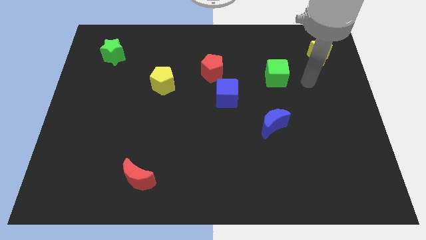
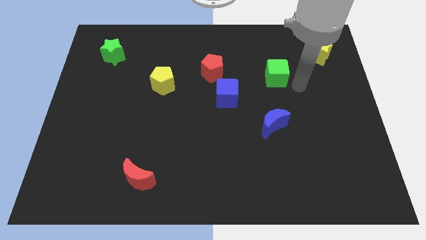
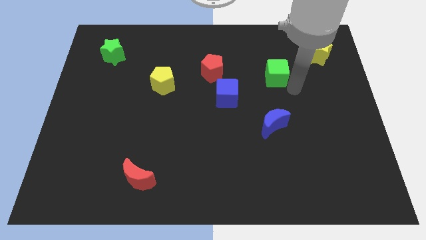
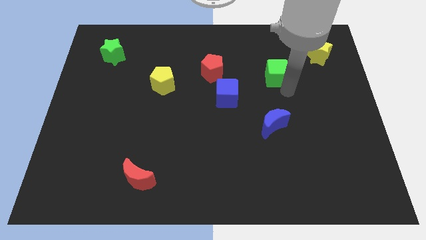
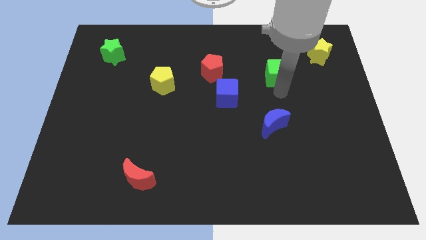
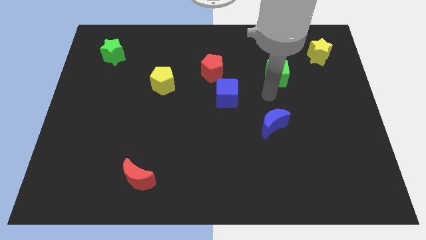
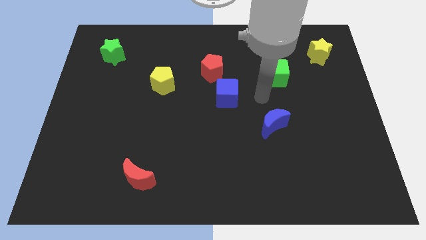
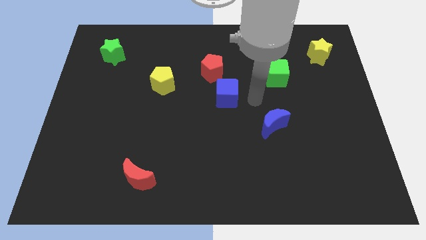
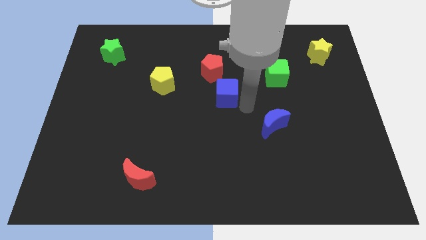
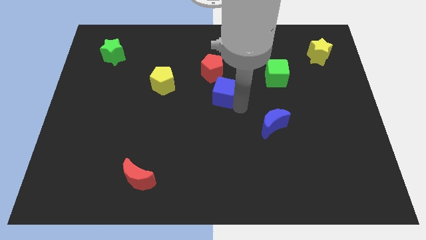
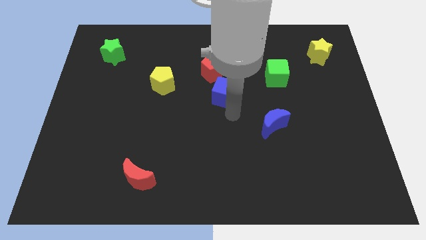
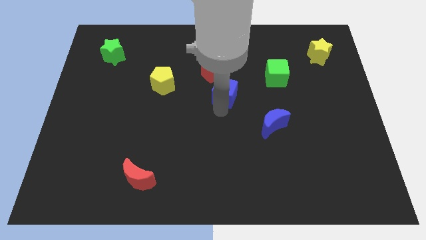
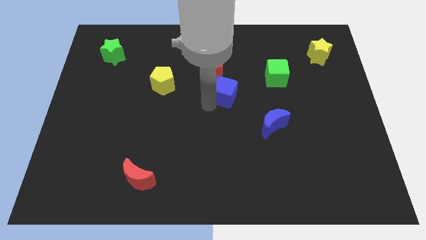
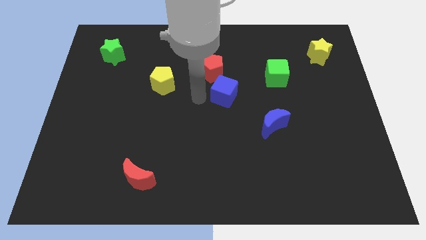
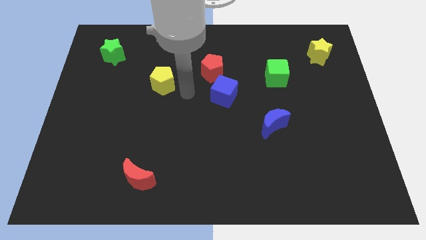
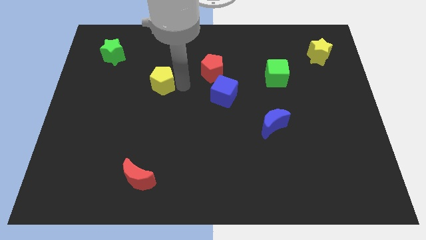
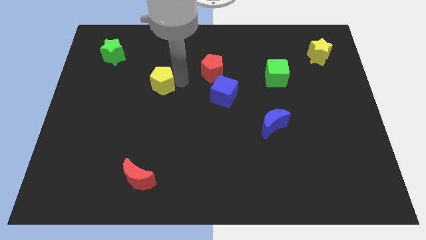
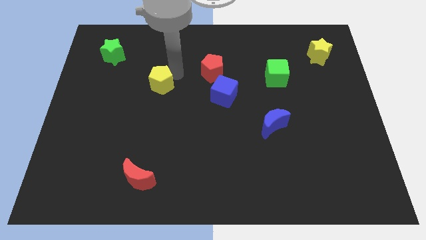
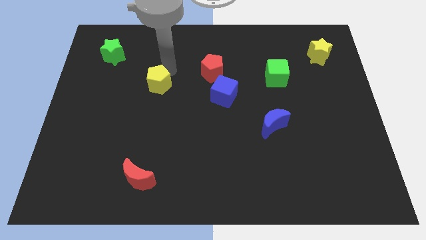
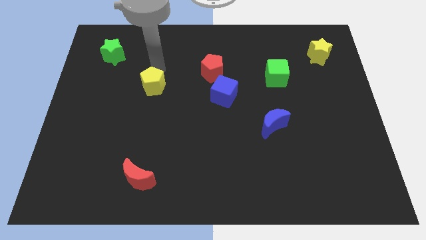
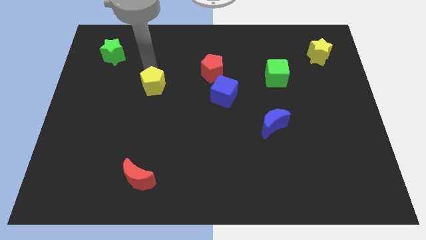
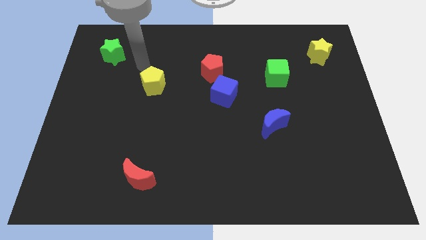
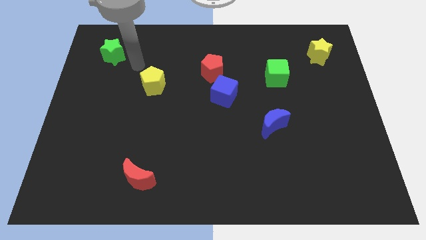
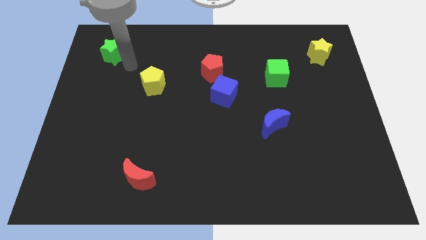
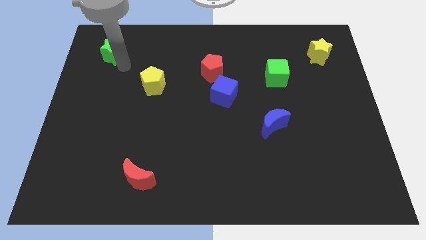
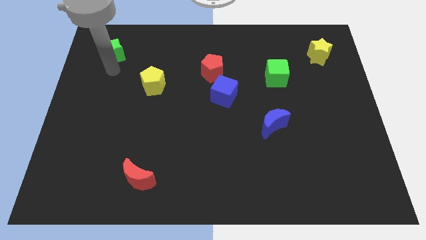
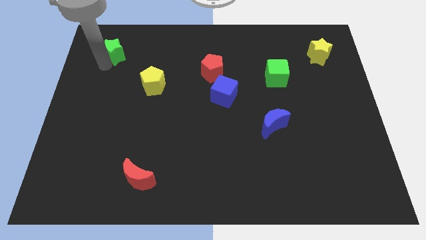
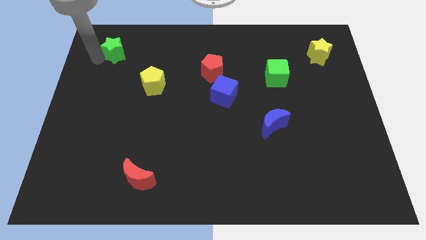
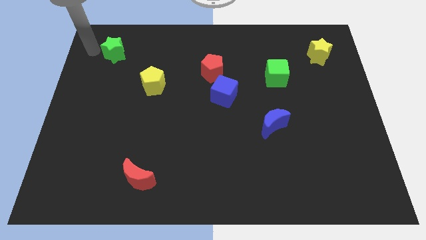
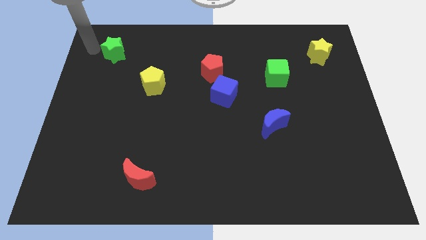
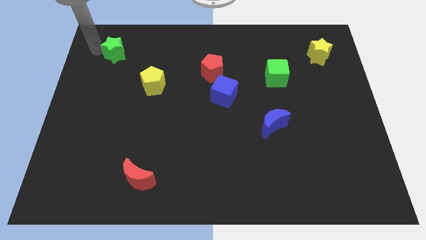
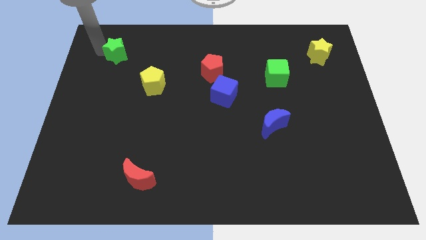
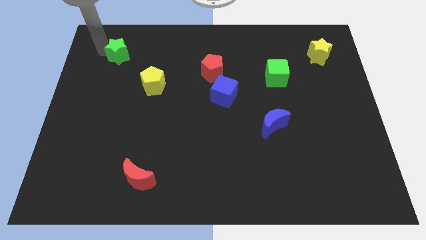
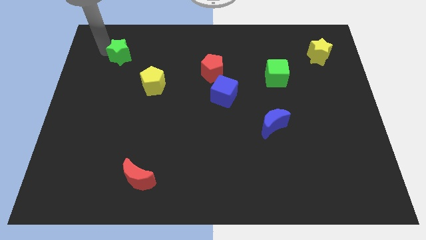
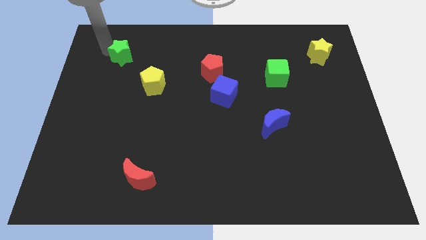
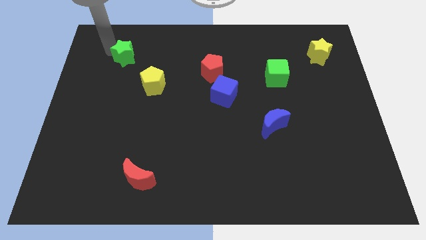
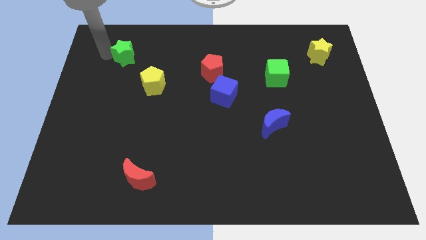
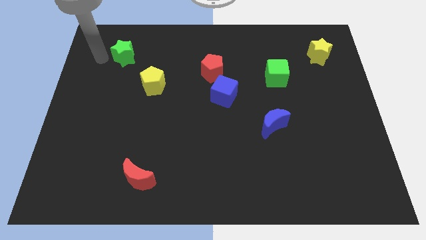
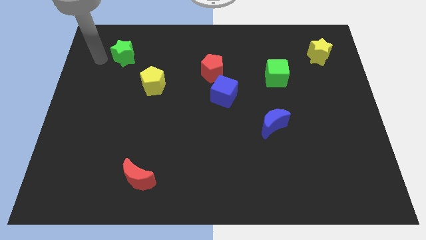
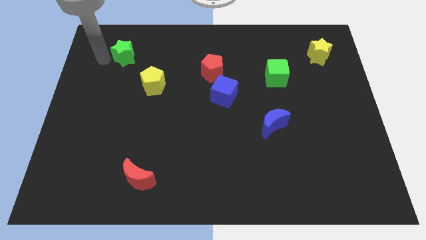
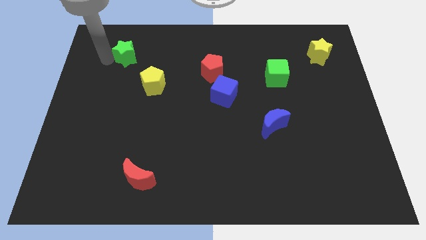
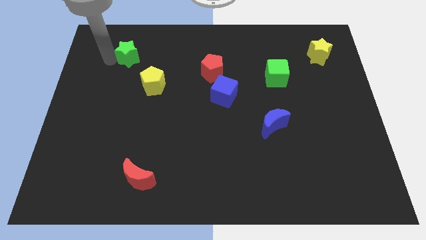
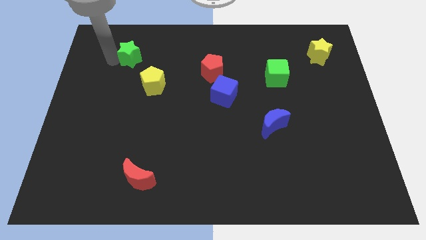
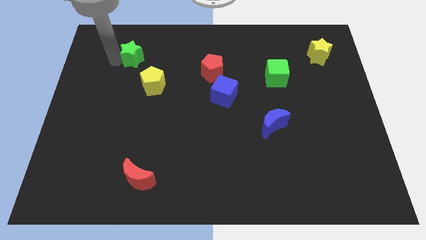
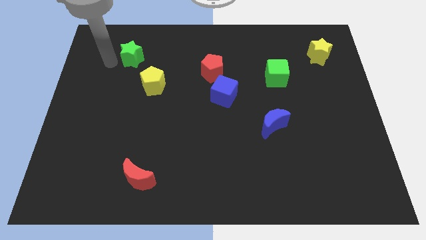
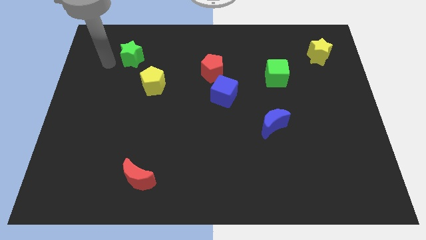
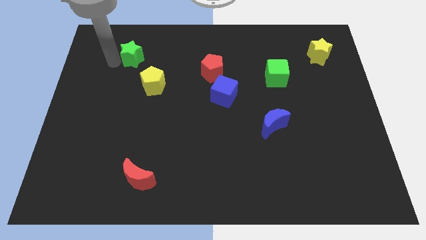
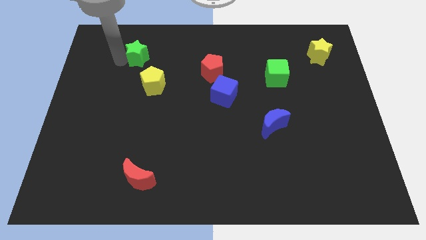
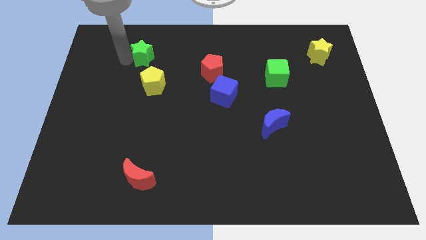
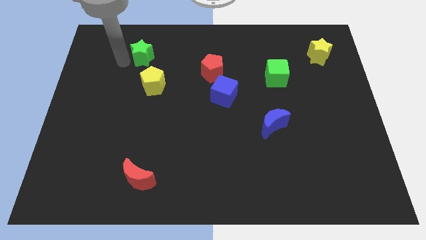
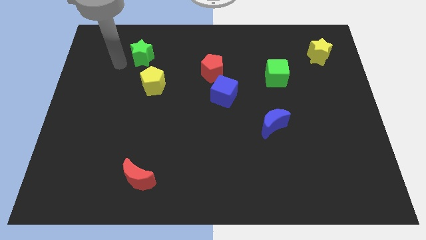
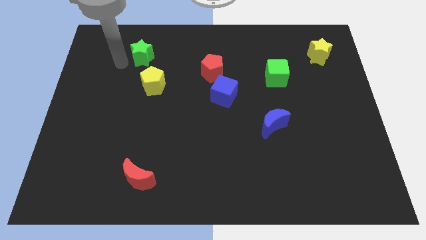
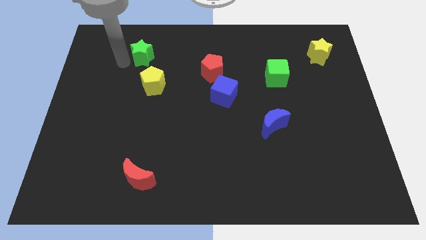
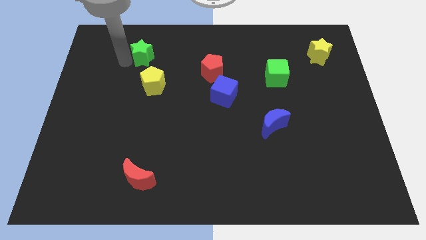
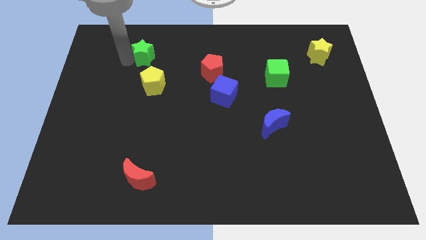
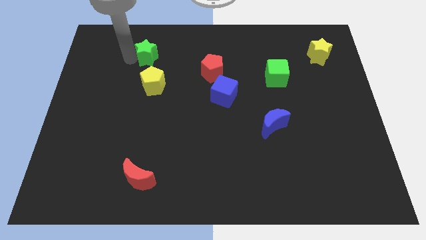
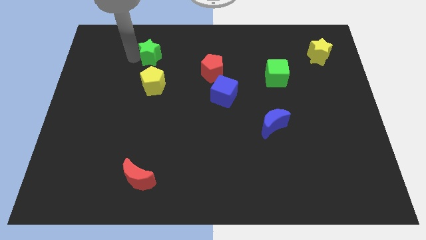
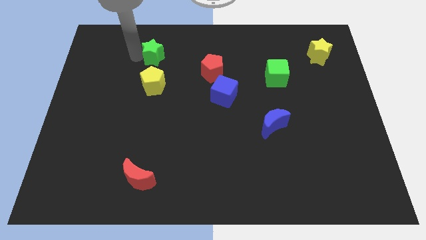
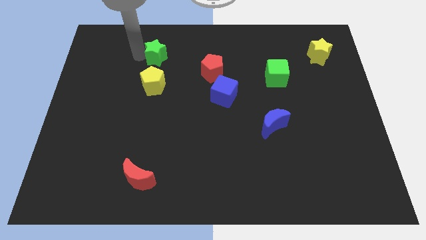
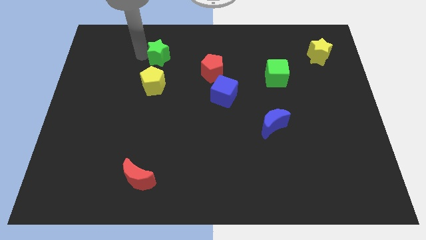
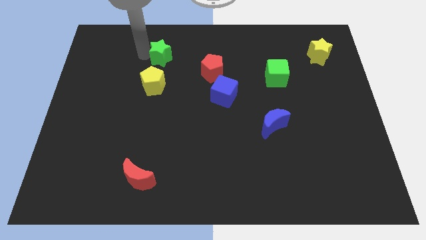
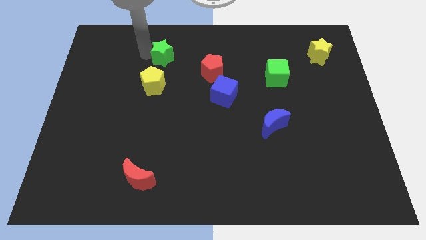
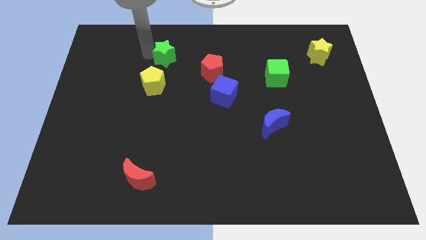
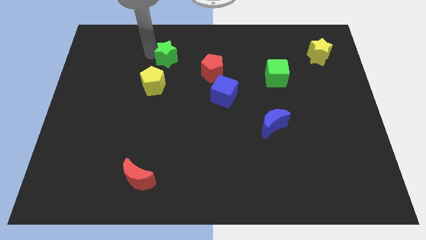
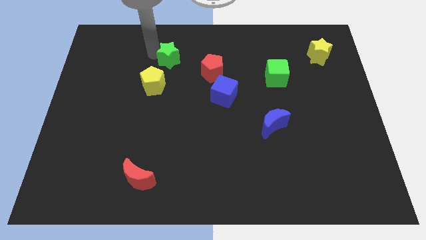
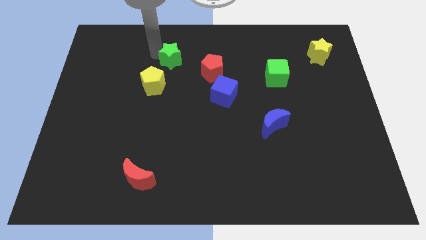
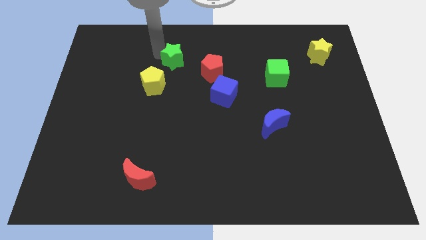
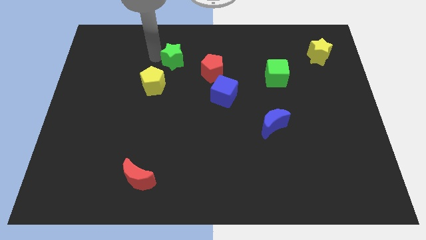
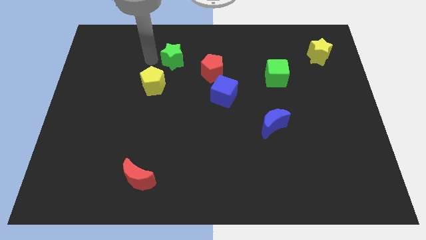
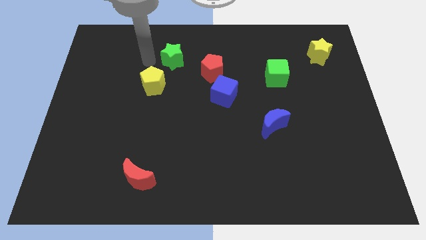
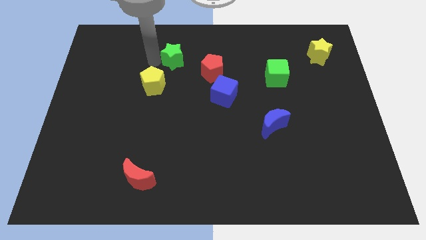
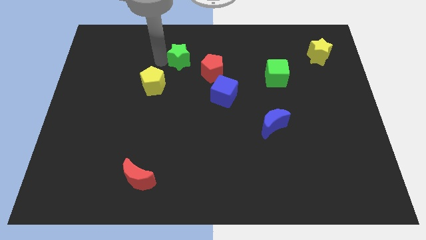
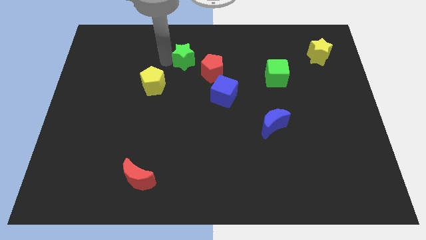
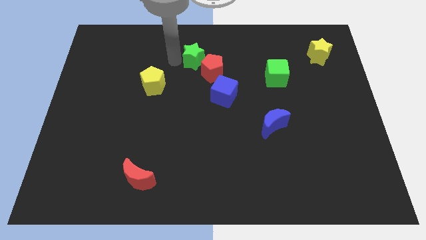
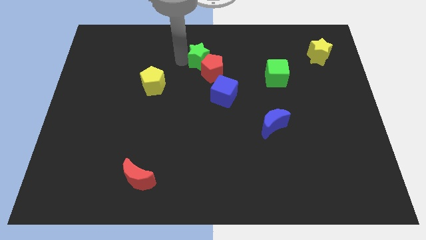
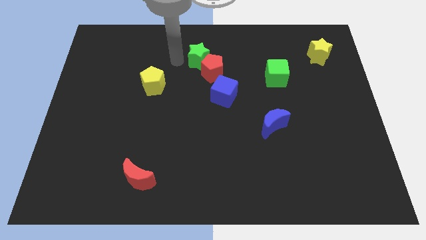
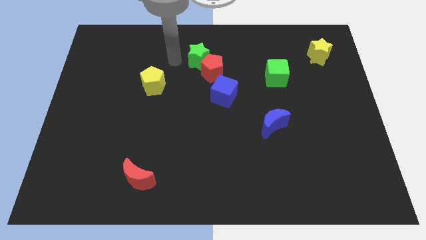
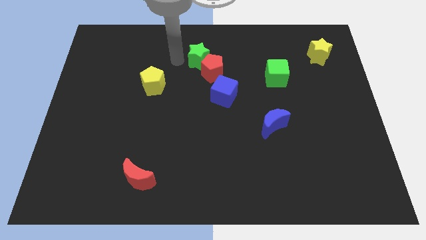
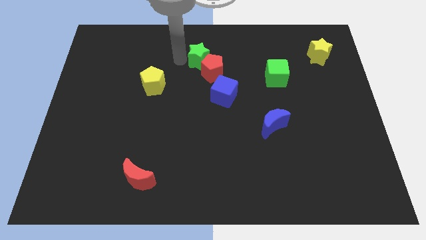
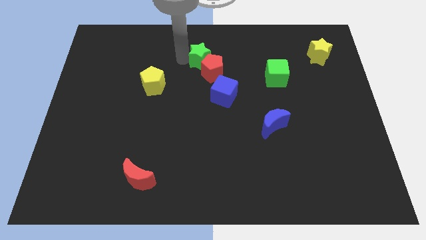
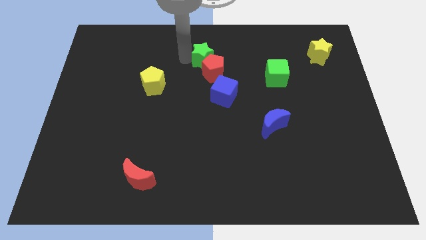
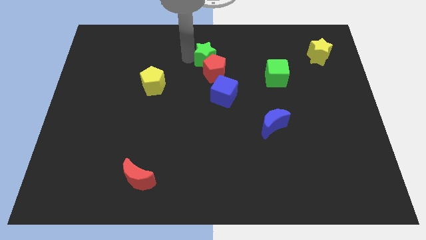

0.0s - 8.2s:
put the green star to the top side of the blue cube
